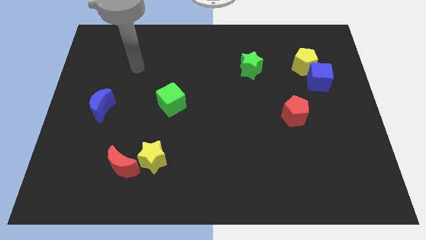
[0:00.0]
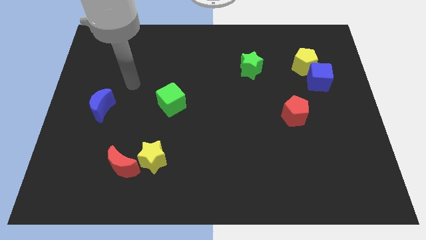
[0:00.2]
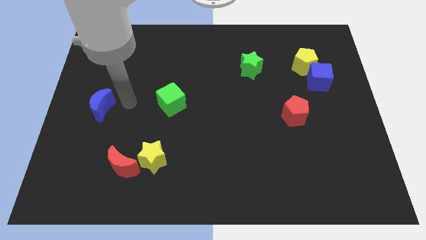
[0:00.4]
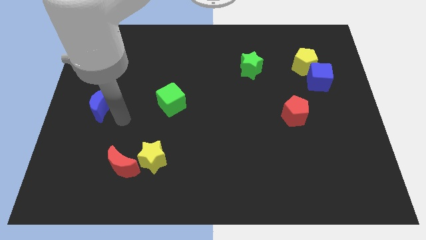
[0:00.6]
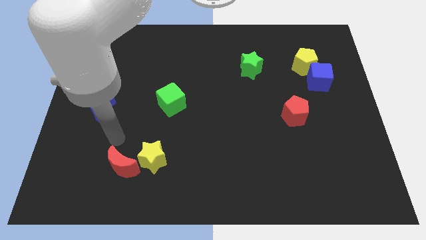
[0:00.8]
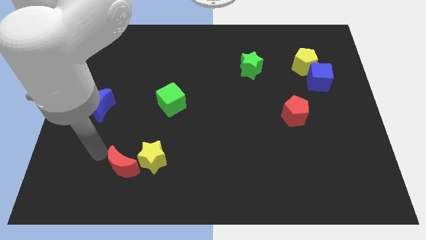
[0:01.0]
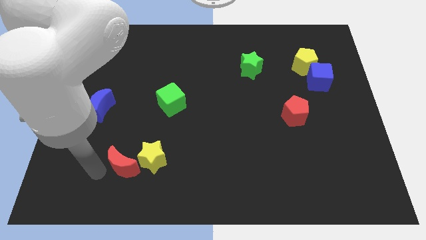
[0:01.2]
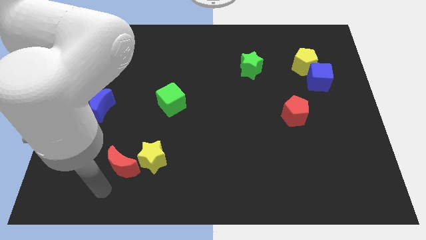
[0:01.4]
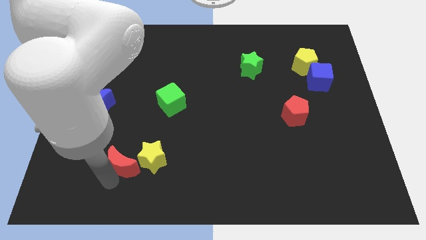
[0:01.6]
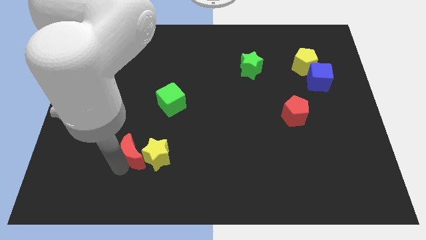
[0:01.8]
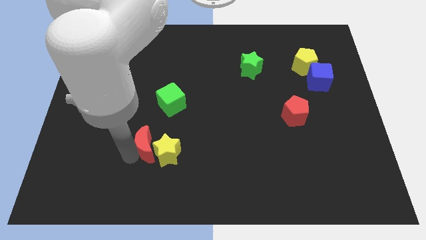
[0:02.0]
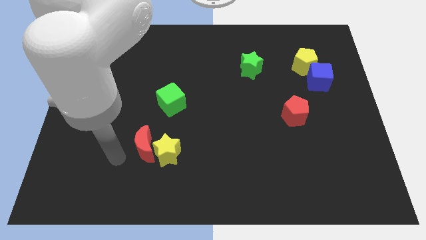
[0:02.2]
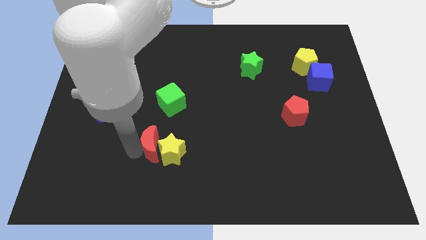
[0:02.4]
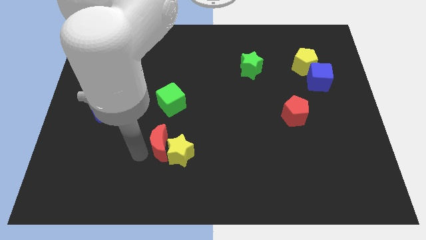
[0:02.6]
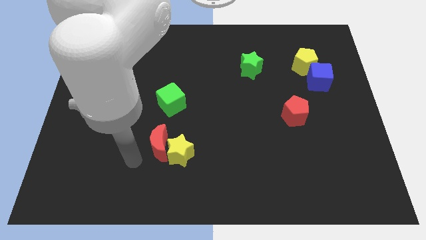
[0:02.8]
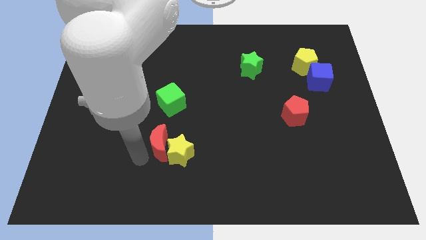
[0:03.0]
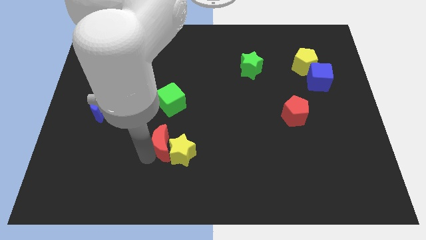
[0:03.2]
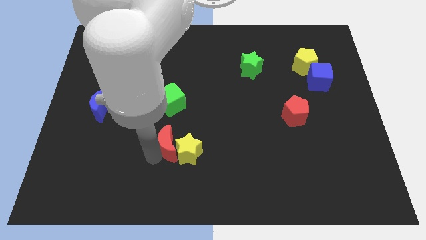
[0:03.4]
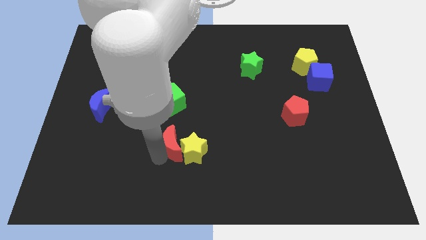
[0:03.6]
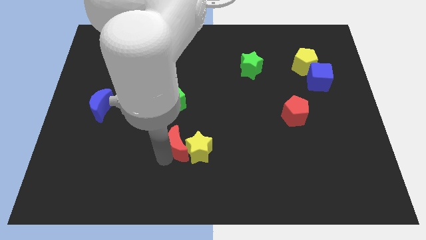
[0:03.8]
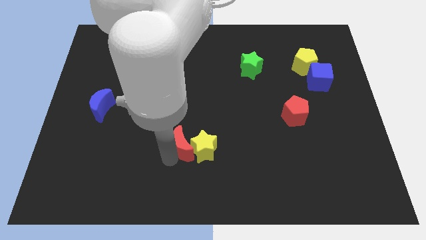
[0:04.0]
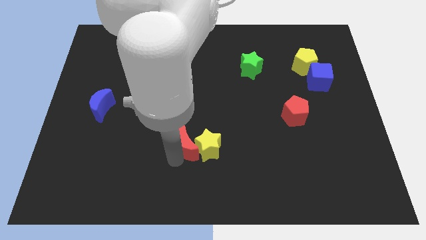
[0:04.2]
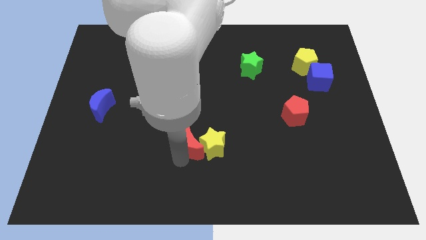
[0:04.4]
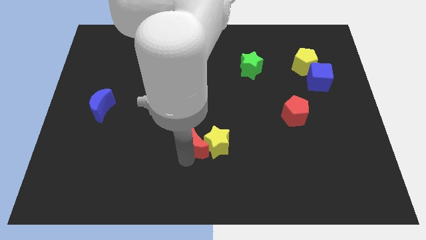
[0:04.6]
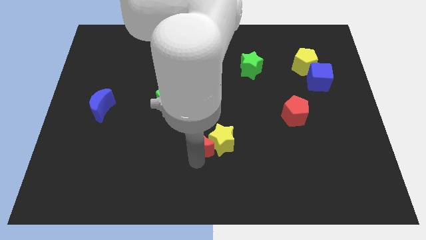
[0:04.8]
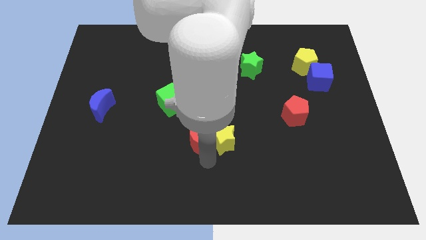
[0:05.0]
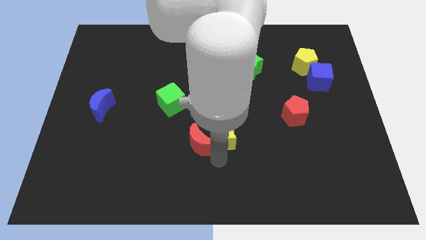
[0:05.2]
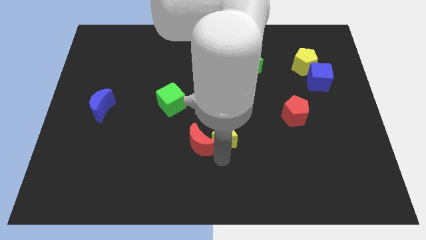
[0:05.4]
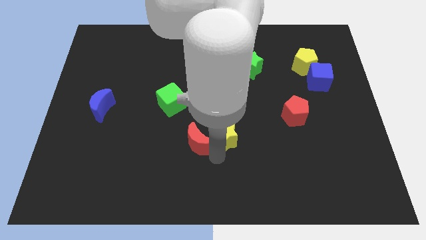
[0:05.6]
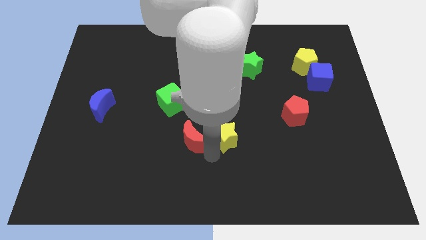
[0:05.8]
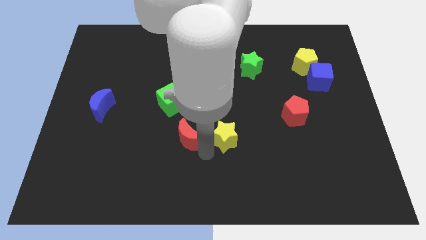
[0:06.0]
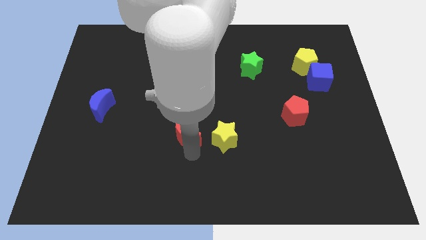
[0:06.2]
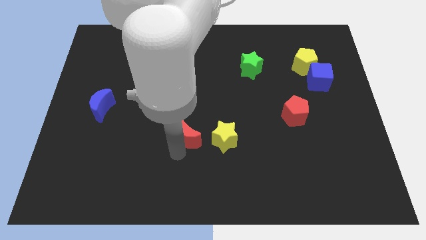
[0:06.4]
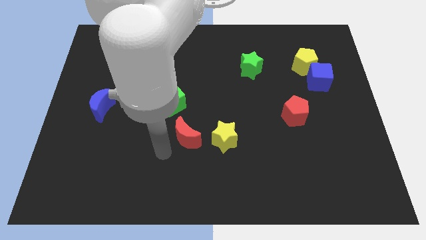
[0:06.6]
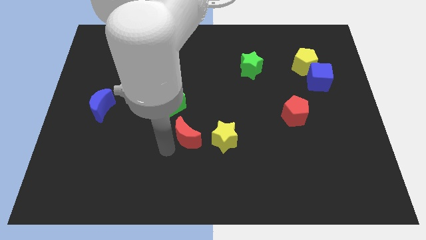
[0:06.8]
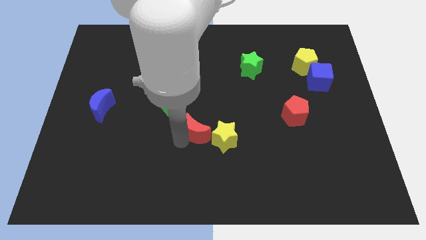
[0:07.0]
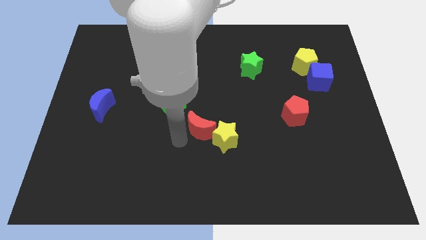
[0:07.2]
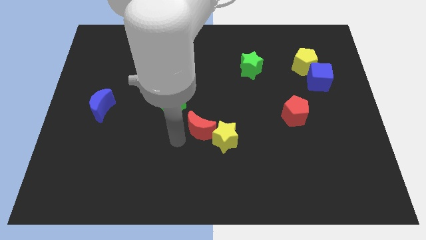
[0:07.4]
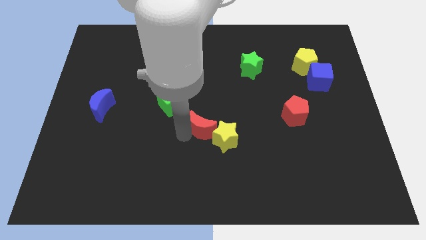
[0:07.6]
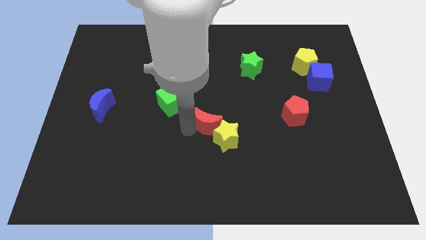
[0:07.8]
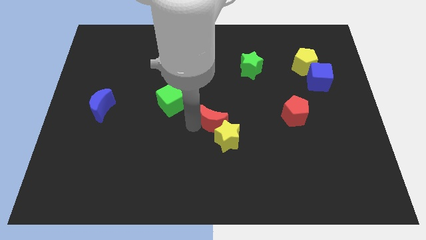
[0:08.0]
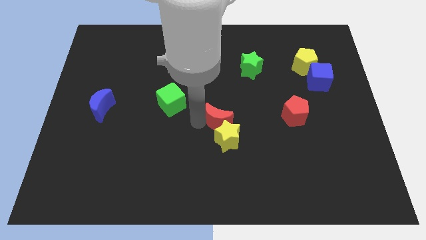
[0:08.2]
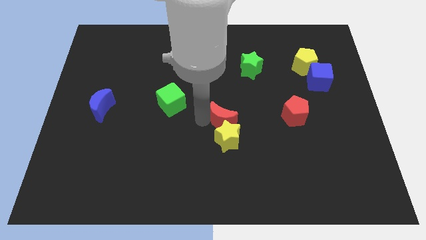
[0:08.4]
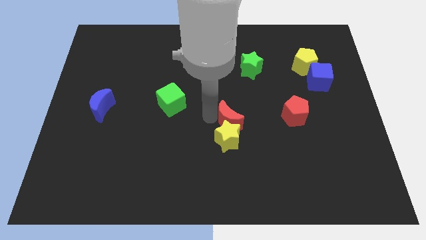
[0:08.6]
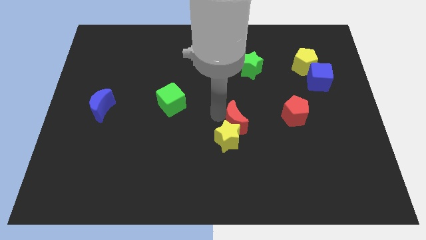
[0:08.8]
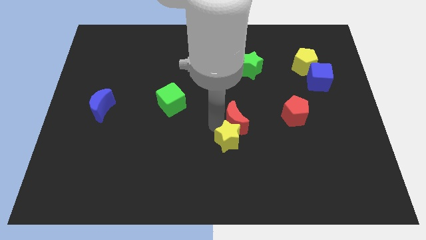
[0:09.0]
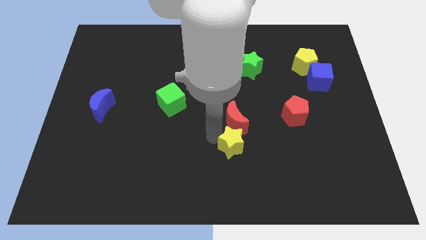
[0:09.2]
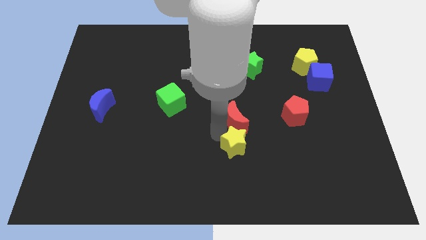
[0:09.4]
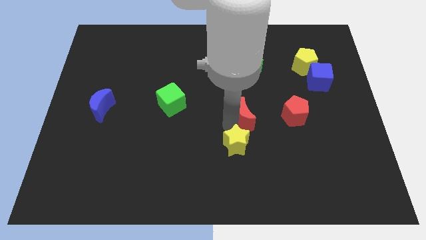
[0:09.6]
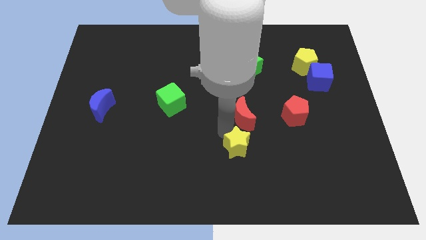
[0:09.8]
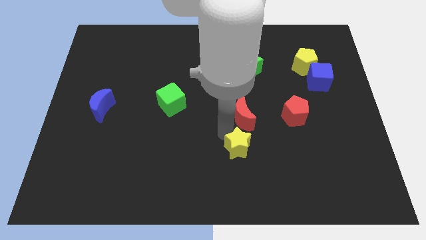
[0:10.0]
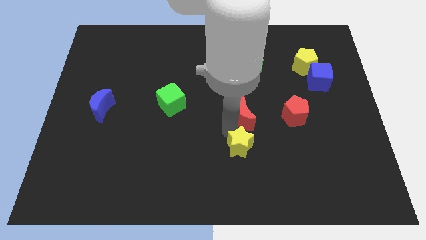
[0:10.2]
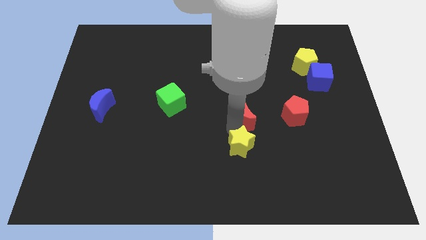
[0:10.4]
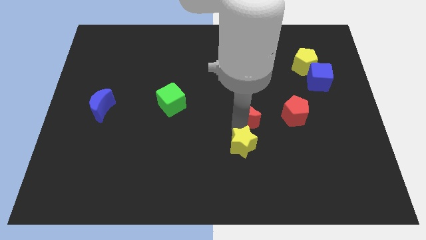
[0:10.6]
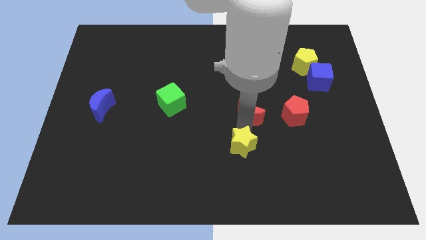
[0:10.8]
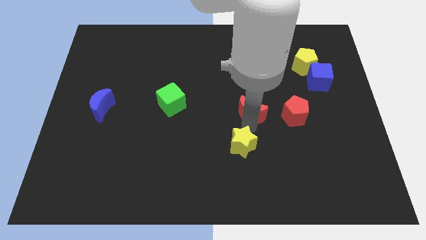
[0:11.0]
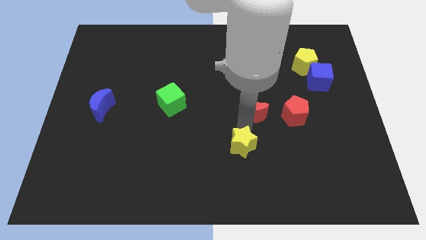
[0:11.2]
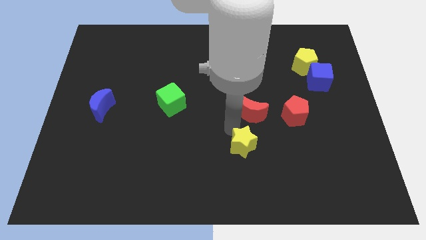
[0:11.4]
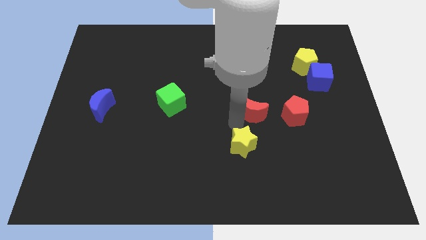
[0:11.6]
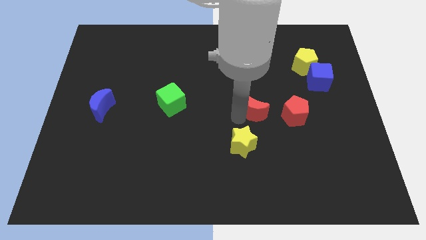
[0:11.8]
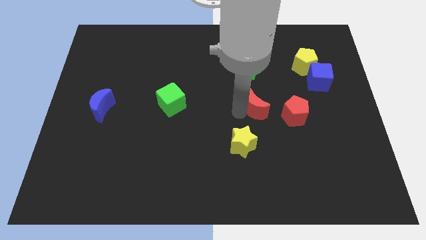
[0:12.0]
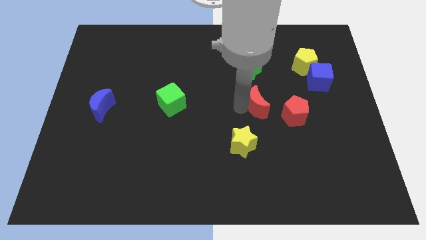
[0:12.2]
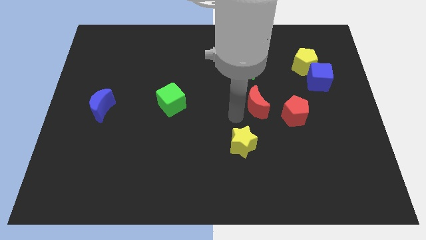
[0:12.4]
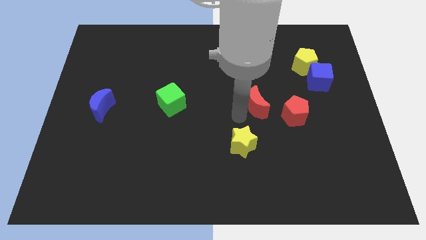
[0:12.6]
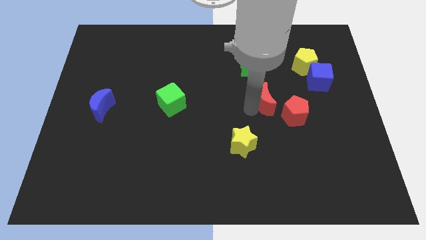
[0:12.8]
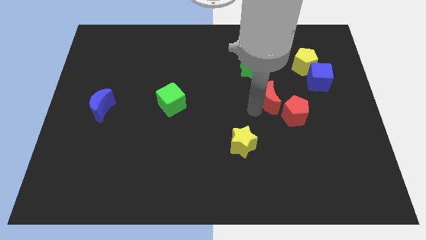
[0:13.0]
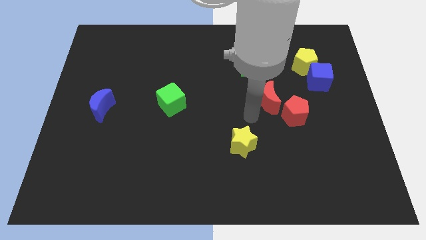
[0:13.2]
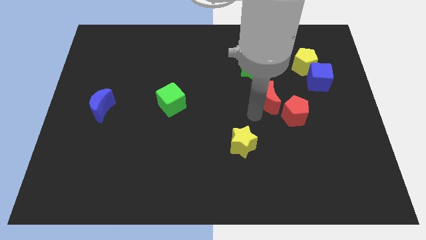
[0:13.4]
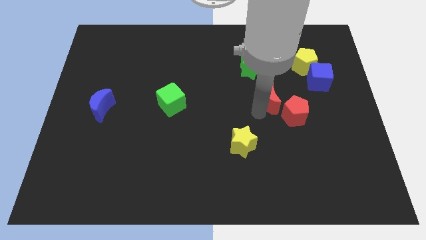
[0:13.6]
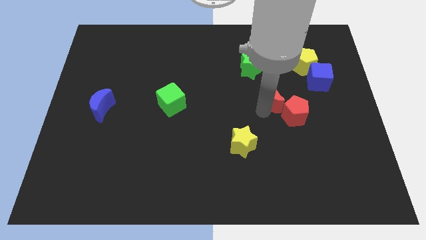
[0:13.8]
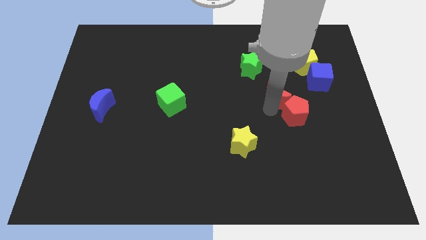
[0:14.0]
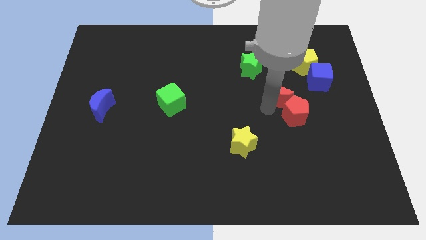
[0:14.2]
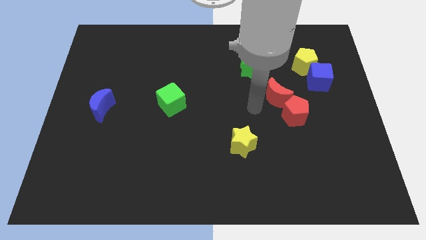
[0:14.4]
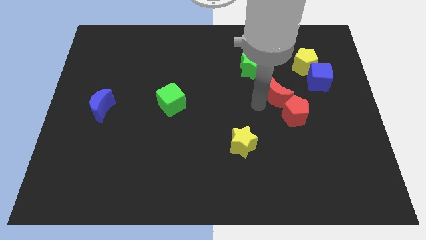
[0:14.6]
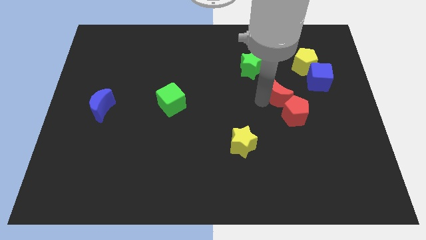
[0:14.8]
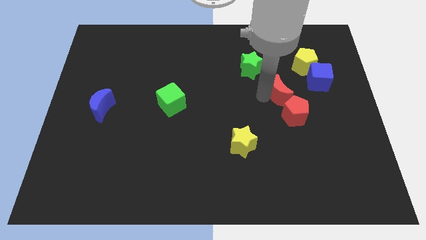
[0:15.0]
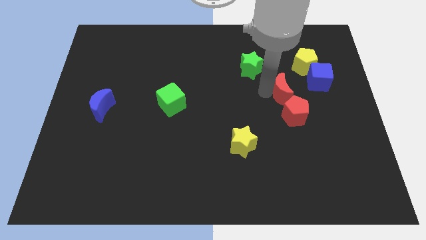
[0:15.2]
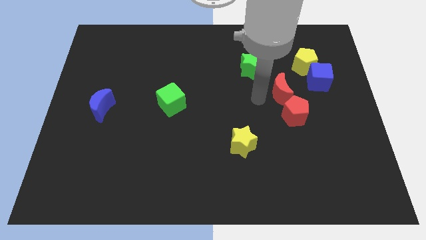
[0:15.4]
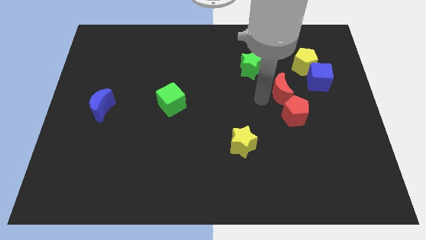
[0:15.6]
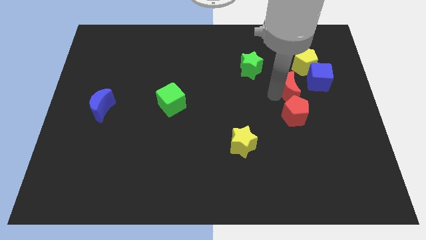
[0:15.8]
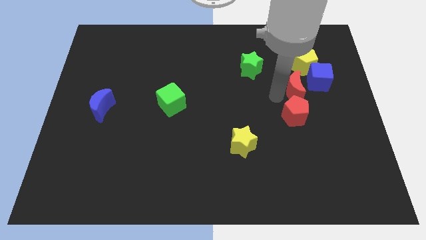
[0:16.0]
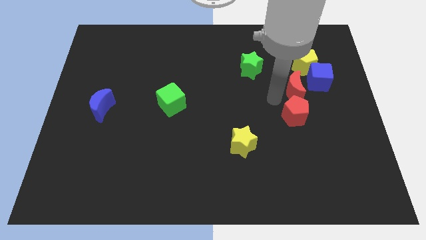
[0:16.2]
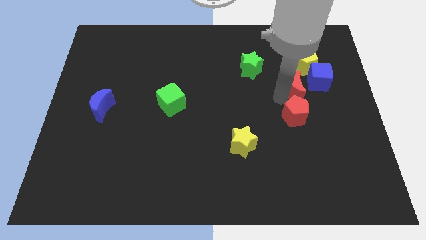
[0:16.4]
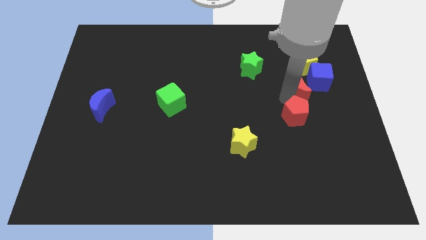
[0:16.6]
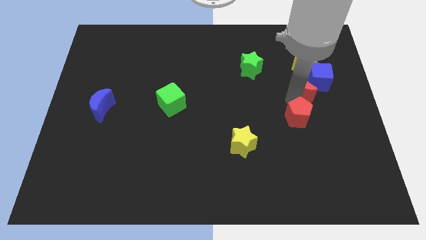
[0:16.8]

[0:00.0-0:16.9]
put the red moon to the blue cube
